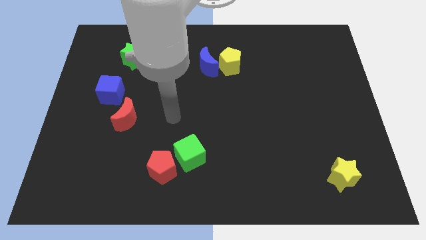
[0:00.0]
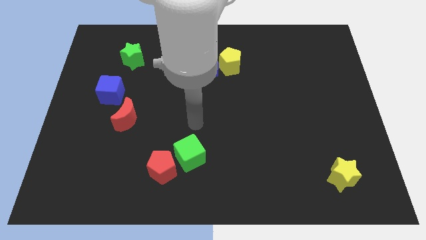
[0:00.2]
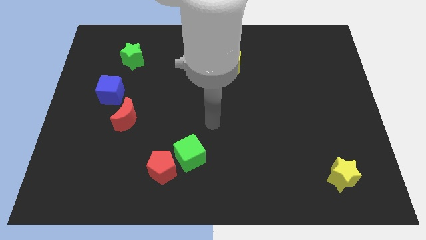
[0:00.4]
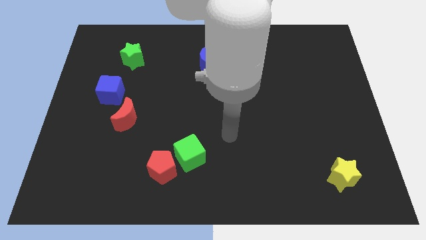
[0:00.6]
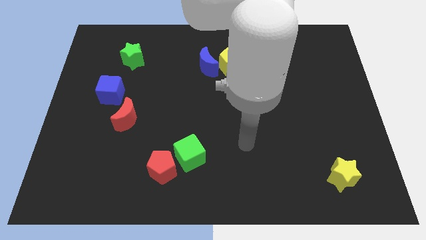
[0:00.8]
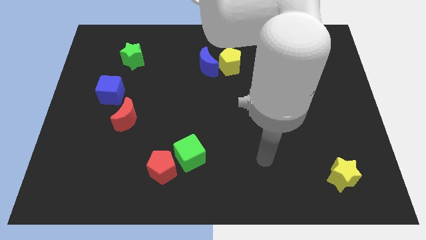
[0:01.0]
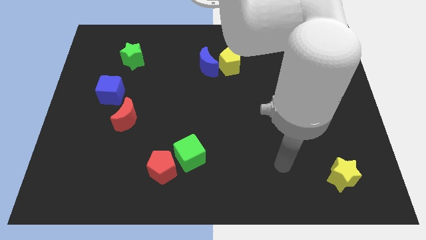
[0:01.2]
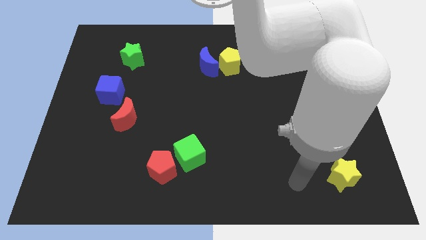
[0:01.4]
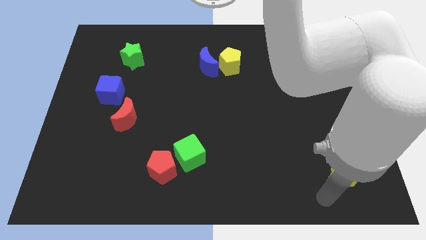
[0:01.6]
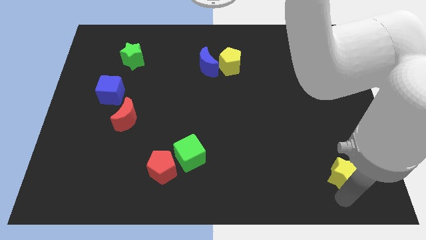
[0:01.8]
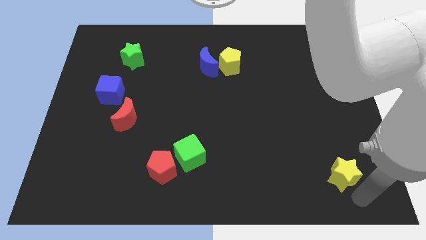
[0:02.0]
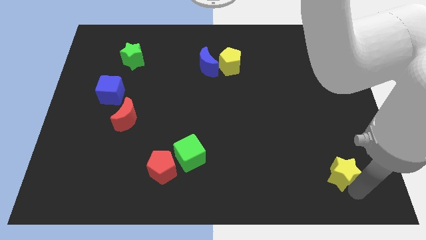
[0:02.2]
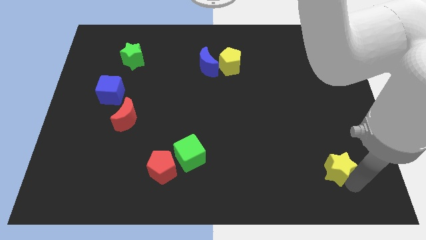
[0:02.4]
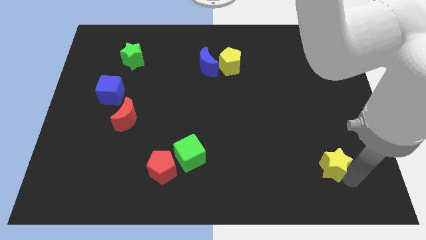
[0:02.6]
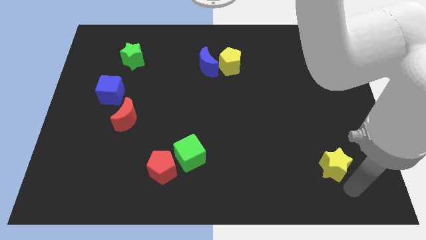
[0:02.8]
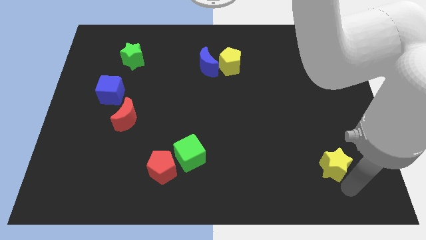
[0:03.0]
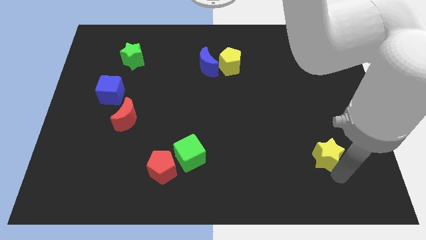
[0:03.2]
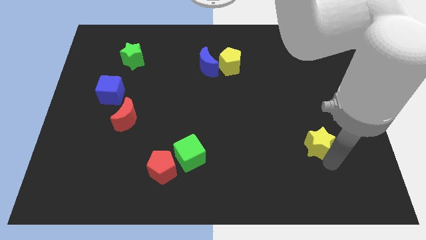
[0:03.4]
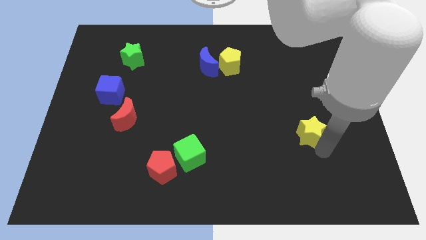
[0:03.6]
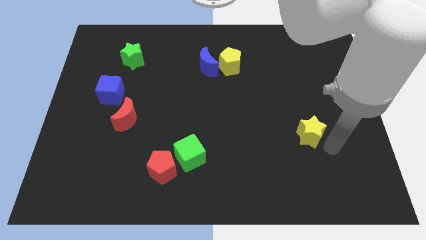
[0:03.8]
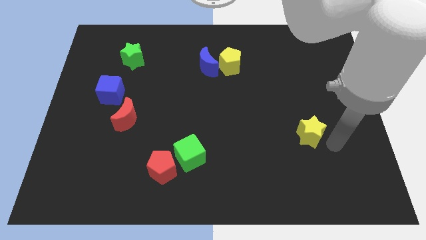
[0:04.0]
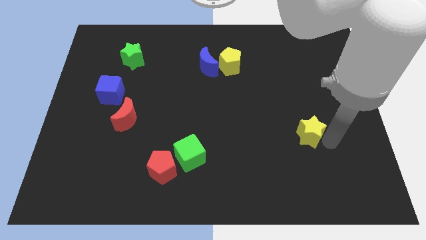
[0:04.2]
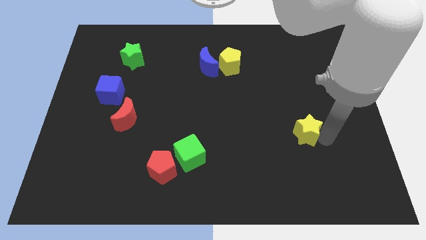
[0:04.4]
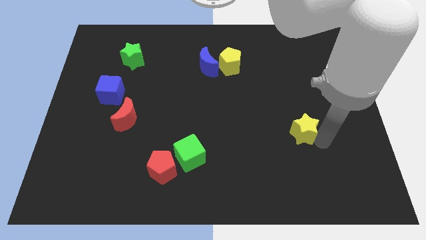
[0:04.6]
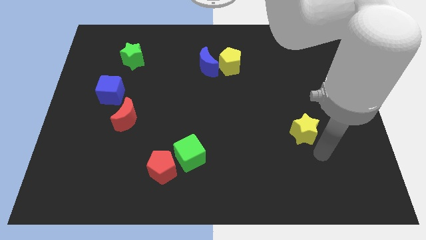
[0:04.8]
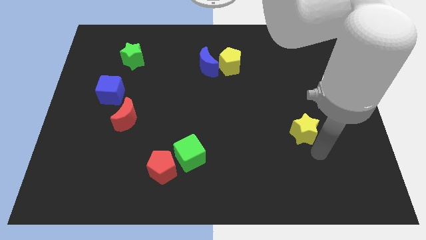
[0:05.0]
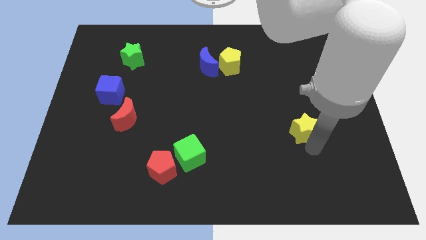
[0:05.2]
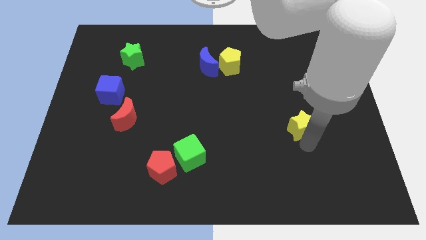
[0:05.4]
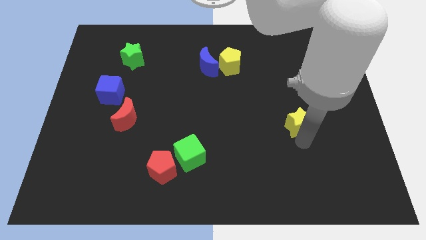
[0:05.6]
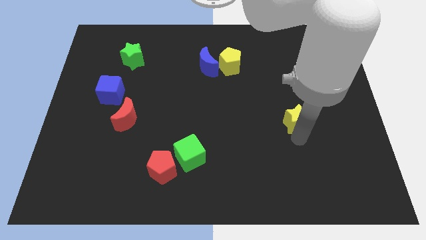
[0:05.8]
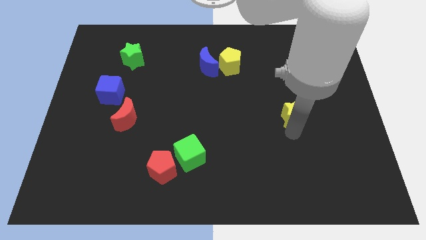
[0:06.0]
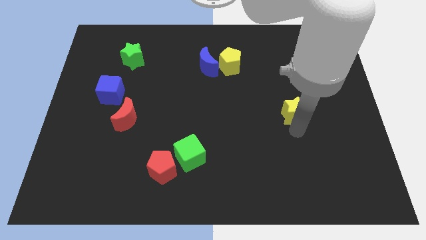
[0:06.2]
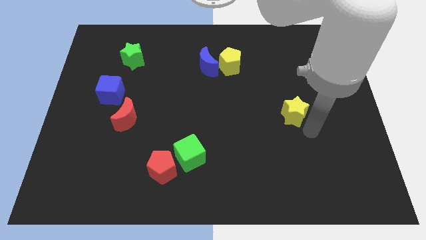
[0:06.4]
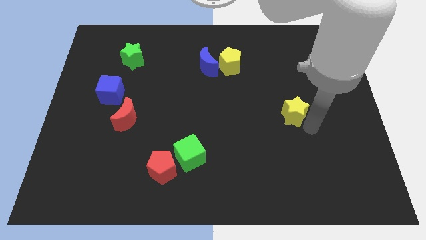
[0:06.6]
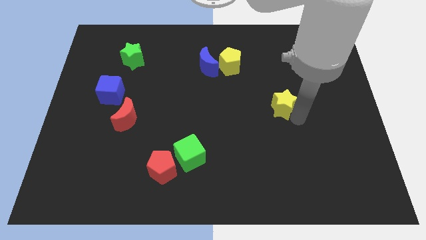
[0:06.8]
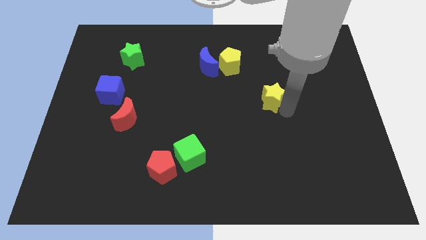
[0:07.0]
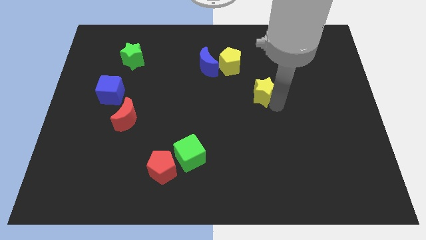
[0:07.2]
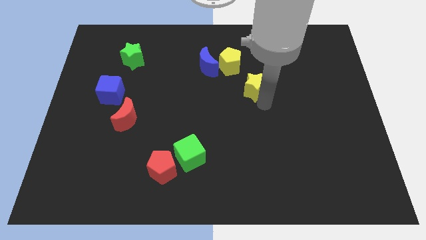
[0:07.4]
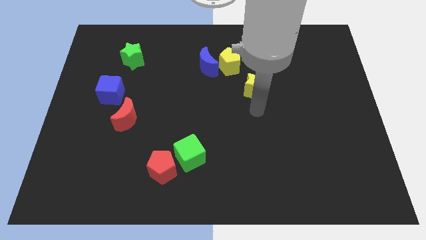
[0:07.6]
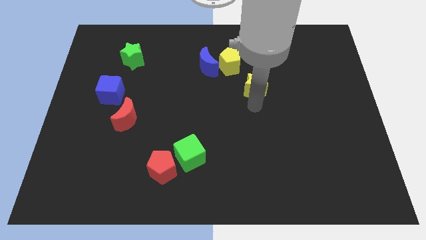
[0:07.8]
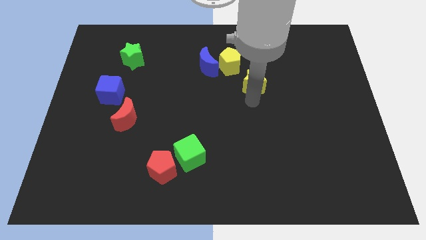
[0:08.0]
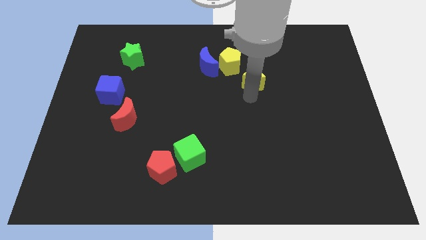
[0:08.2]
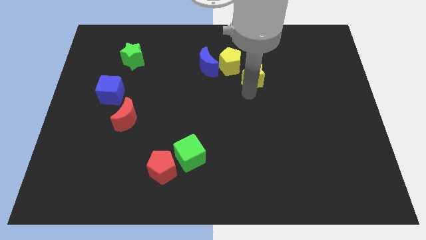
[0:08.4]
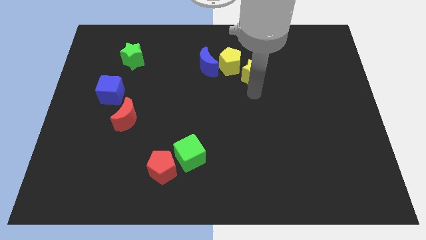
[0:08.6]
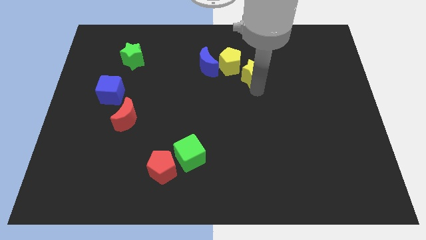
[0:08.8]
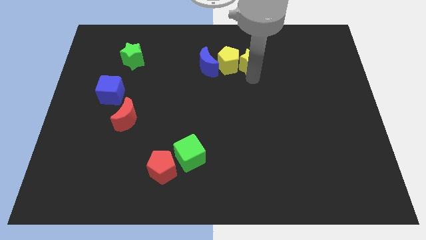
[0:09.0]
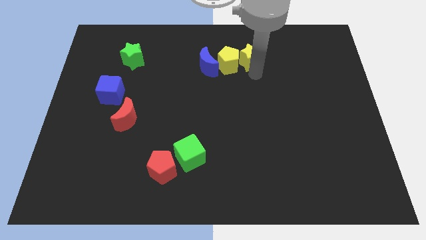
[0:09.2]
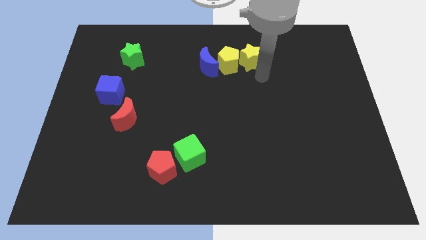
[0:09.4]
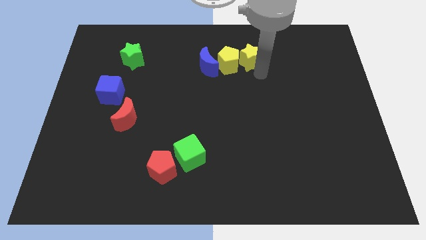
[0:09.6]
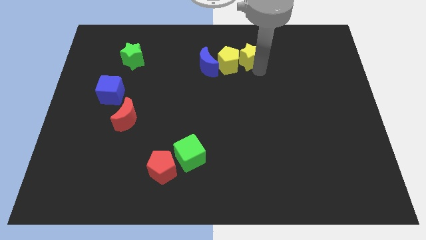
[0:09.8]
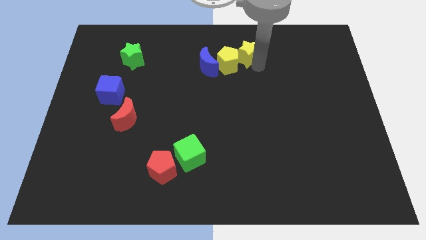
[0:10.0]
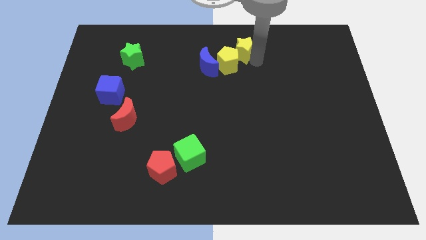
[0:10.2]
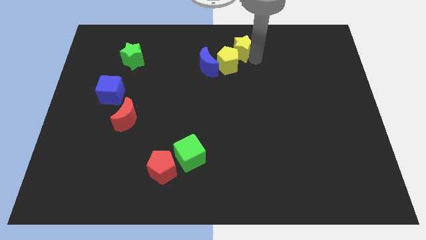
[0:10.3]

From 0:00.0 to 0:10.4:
push the yellow star to the top side

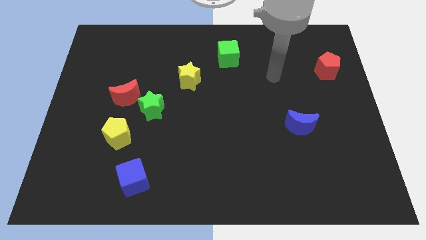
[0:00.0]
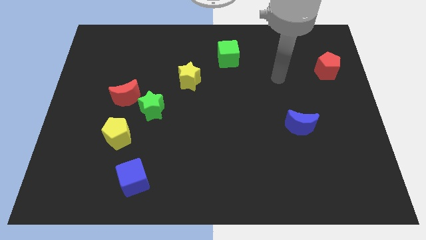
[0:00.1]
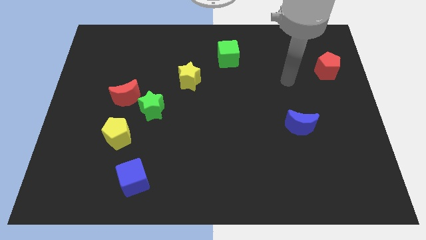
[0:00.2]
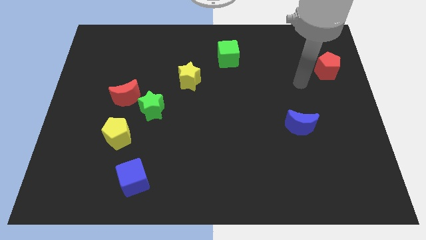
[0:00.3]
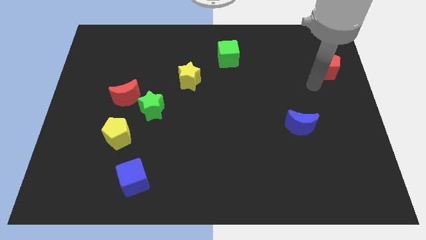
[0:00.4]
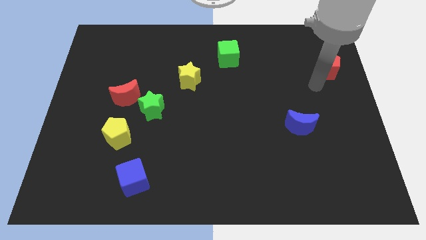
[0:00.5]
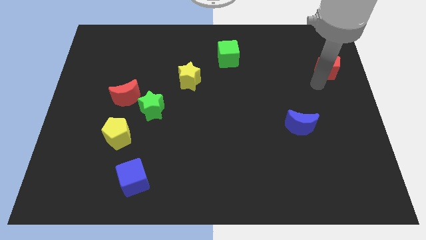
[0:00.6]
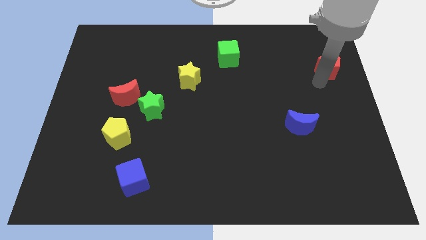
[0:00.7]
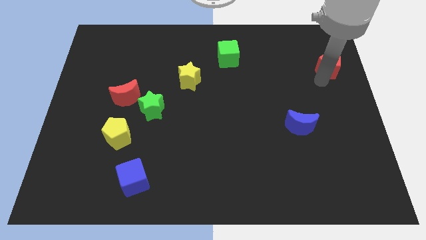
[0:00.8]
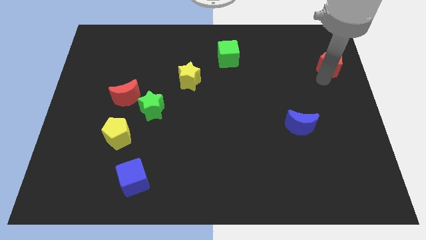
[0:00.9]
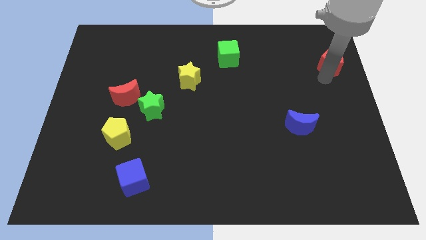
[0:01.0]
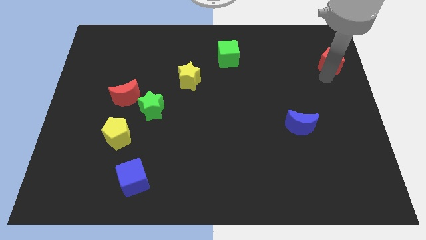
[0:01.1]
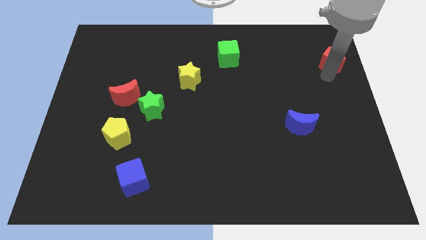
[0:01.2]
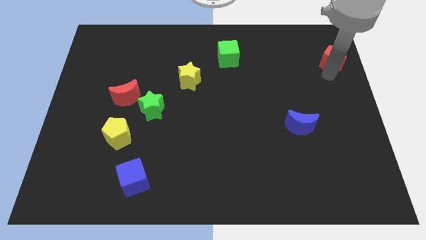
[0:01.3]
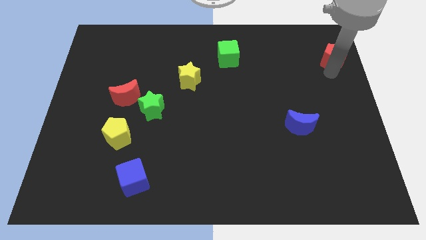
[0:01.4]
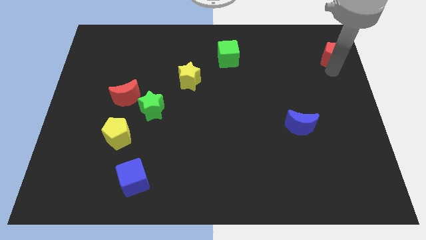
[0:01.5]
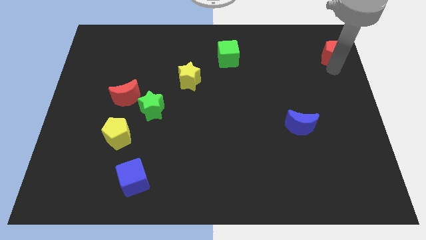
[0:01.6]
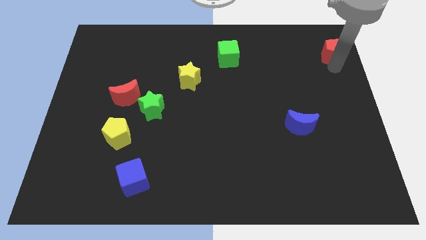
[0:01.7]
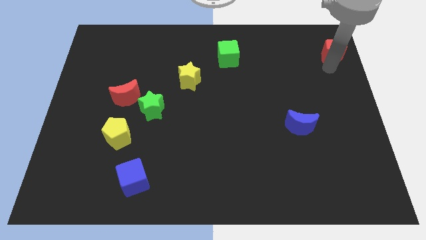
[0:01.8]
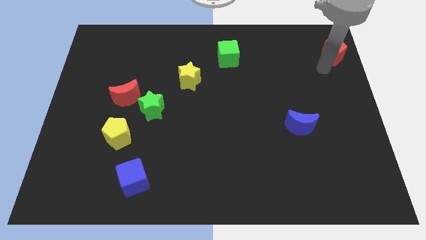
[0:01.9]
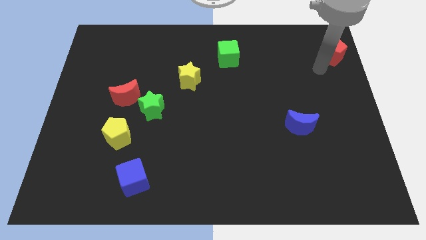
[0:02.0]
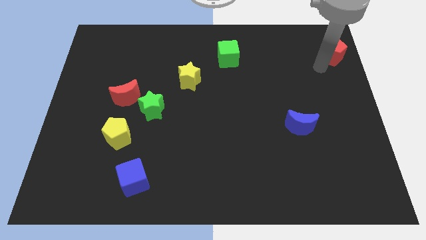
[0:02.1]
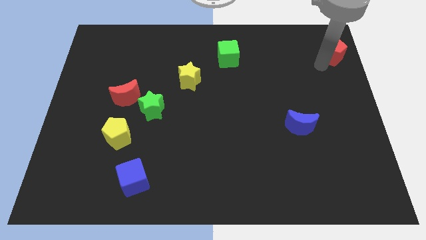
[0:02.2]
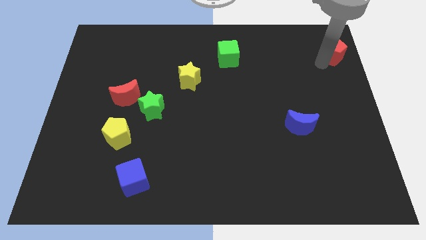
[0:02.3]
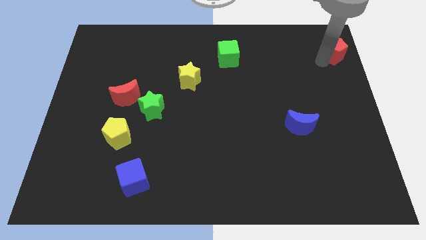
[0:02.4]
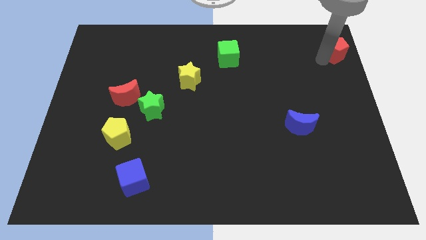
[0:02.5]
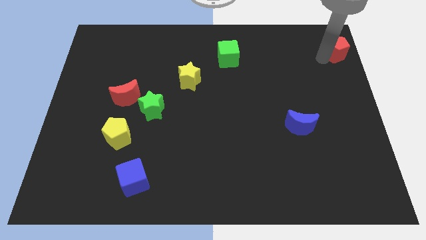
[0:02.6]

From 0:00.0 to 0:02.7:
put the red pentagon to the top right corner
